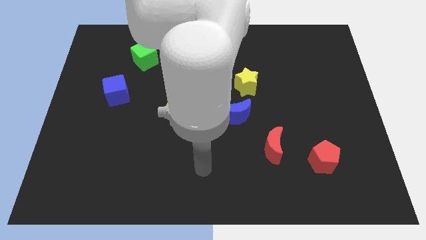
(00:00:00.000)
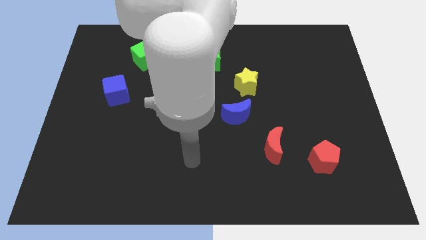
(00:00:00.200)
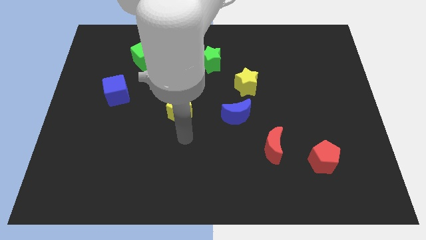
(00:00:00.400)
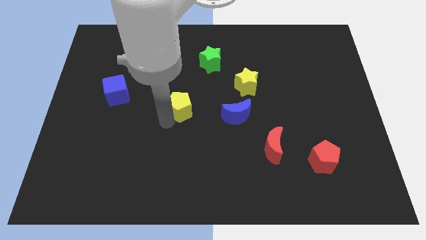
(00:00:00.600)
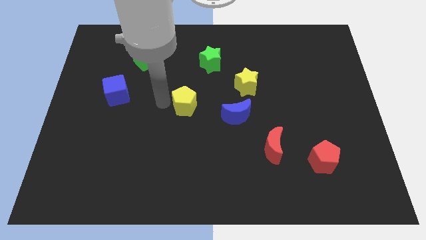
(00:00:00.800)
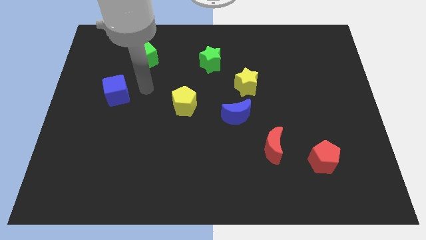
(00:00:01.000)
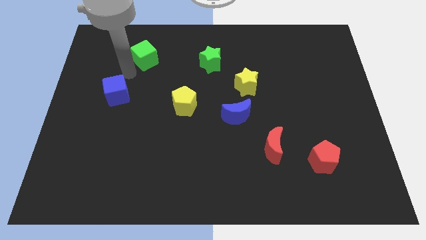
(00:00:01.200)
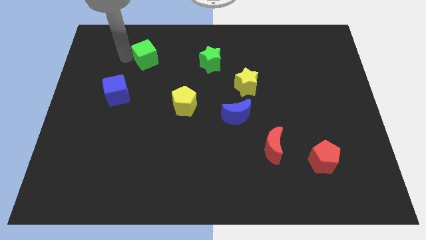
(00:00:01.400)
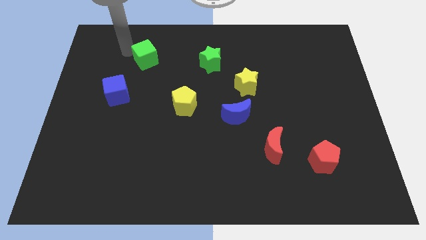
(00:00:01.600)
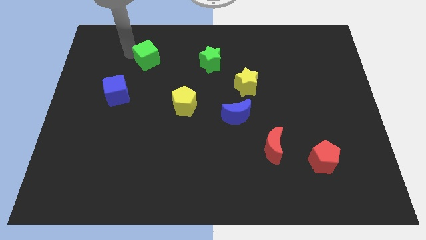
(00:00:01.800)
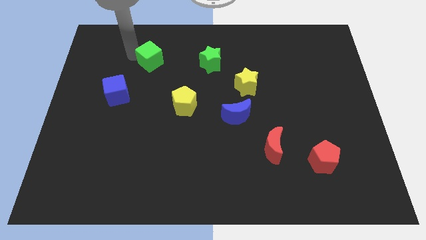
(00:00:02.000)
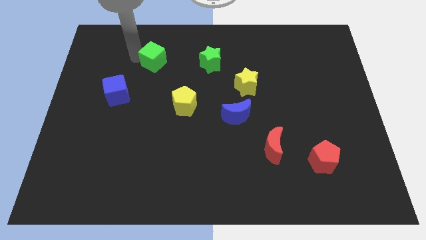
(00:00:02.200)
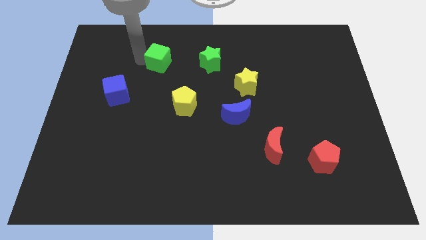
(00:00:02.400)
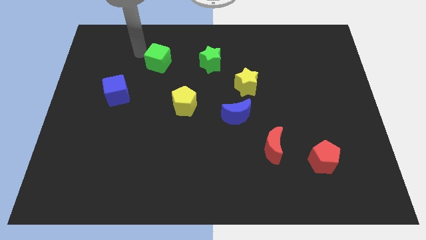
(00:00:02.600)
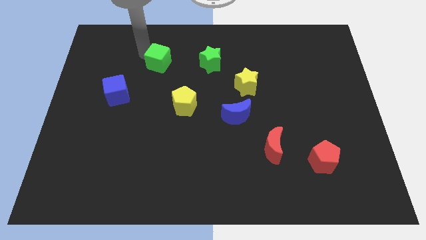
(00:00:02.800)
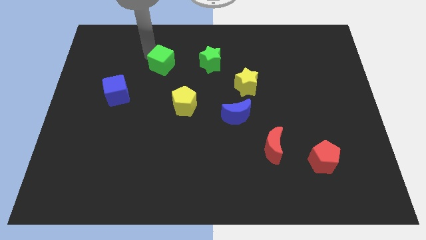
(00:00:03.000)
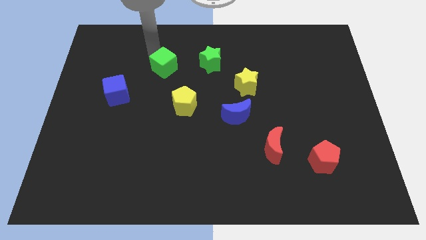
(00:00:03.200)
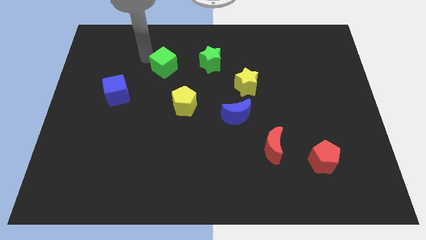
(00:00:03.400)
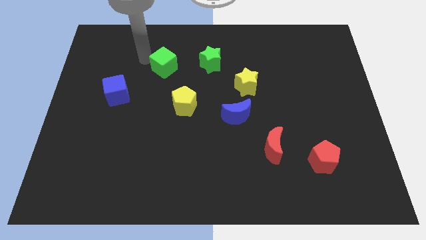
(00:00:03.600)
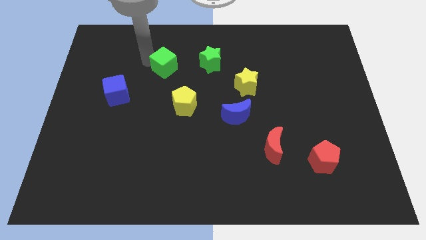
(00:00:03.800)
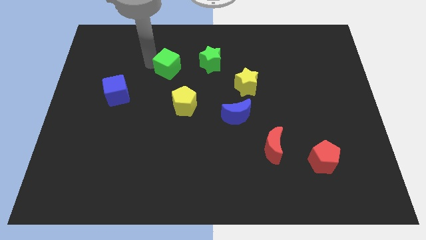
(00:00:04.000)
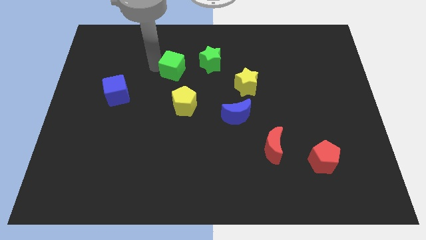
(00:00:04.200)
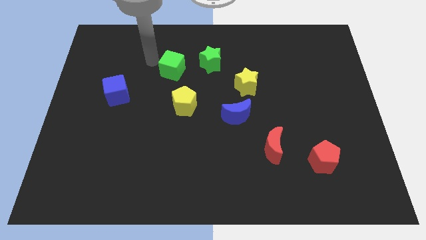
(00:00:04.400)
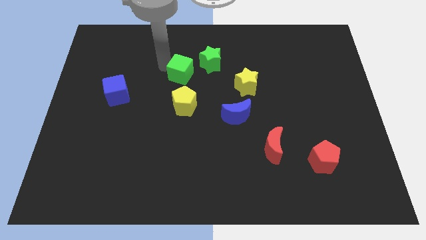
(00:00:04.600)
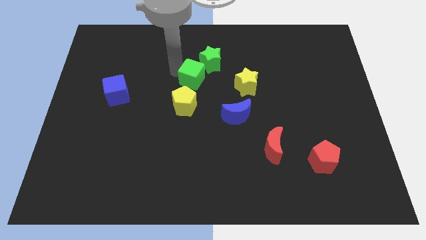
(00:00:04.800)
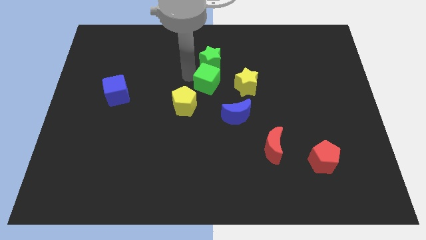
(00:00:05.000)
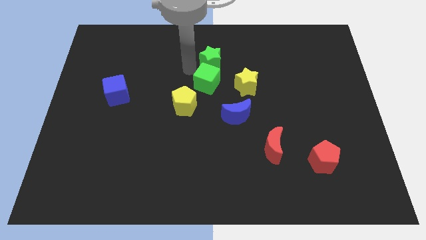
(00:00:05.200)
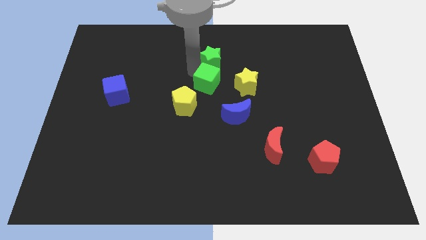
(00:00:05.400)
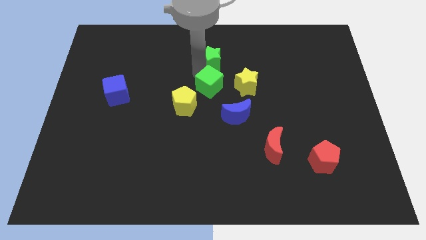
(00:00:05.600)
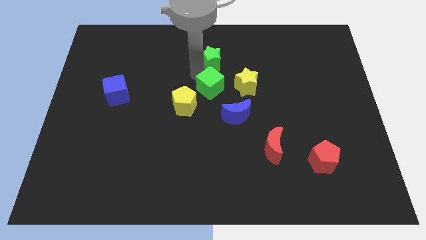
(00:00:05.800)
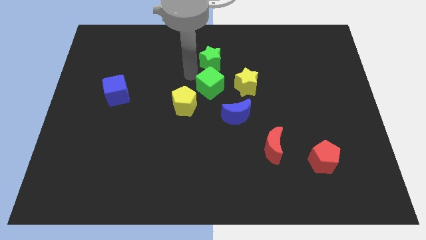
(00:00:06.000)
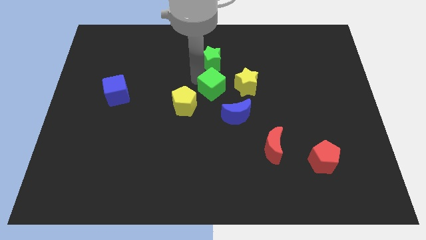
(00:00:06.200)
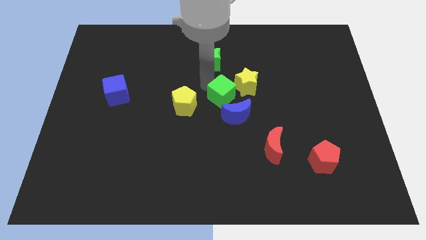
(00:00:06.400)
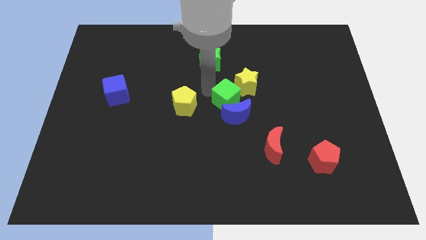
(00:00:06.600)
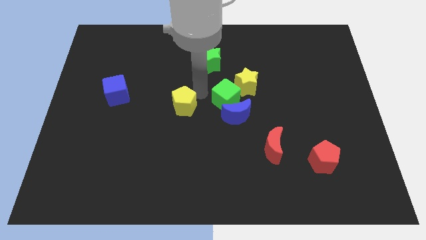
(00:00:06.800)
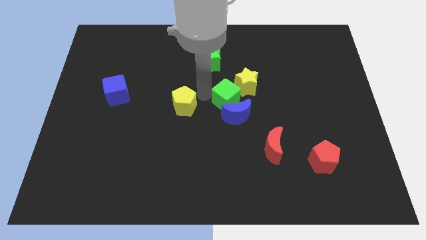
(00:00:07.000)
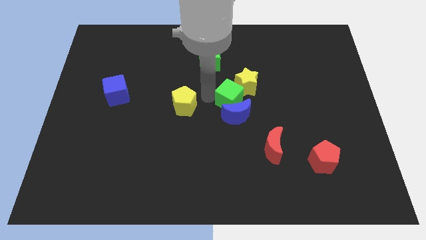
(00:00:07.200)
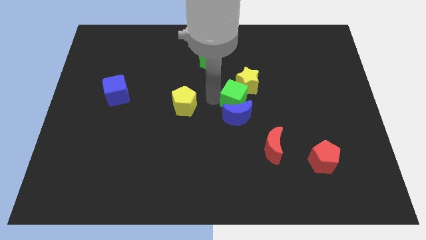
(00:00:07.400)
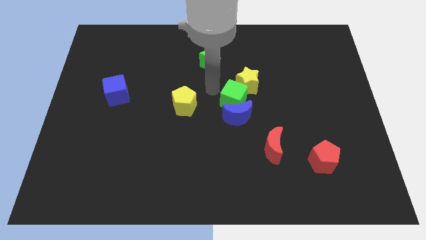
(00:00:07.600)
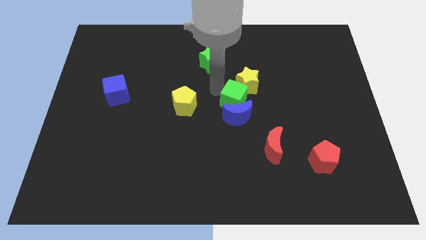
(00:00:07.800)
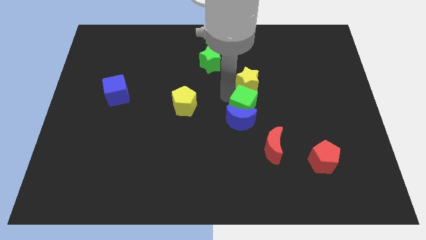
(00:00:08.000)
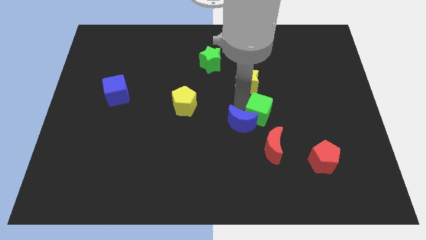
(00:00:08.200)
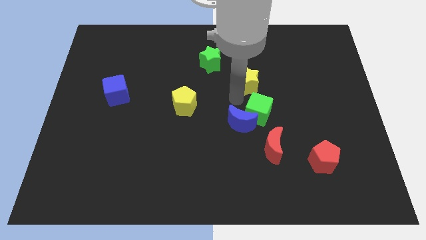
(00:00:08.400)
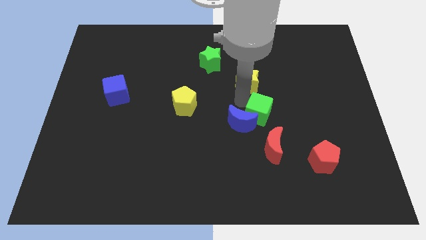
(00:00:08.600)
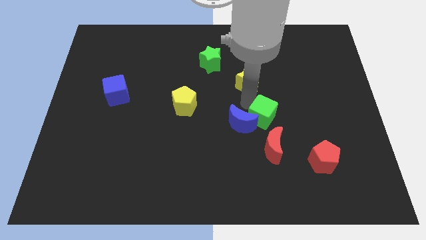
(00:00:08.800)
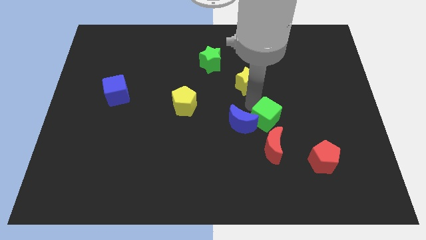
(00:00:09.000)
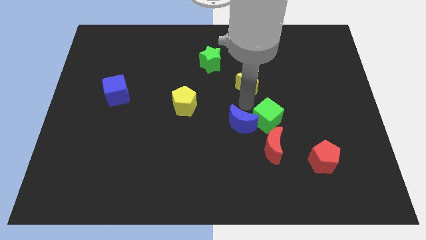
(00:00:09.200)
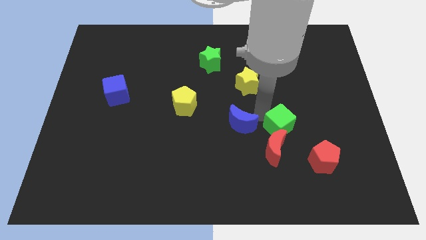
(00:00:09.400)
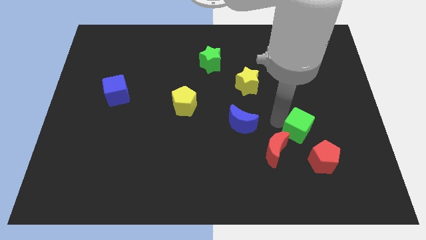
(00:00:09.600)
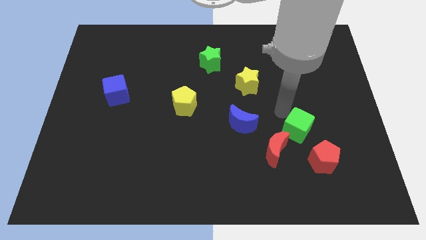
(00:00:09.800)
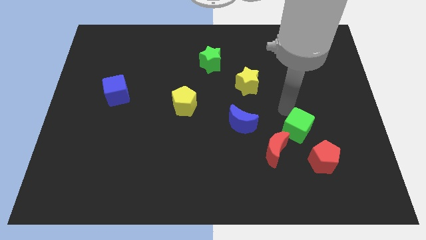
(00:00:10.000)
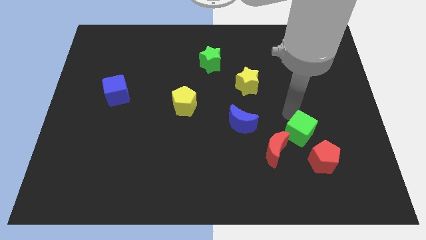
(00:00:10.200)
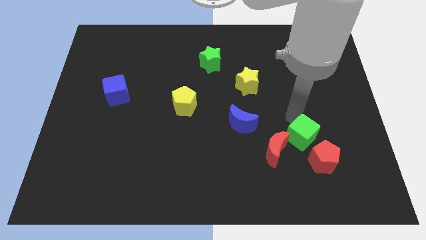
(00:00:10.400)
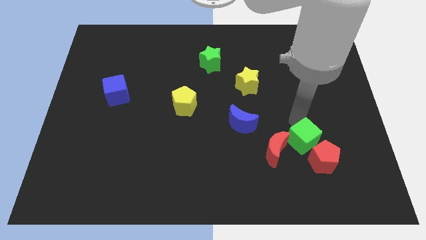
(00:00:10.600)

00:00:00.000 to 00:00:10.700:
push the green cube towards the red pentagon

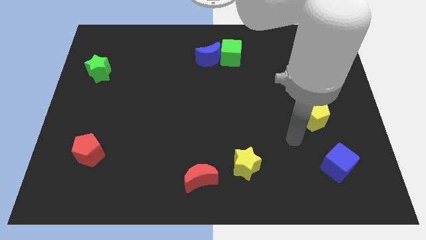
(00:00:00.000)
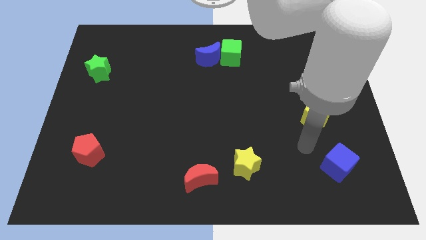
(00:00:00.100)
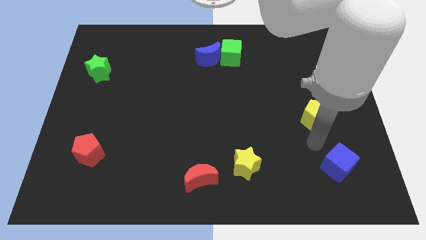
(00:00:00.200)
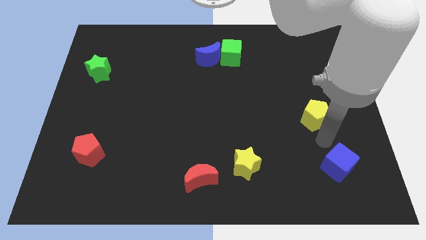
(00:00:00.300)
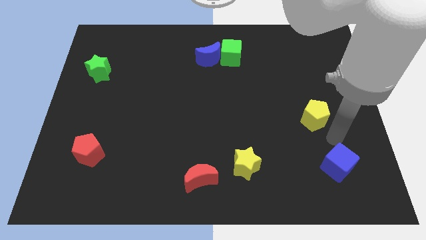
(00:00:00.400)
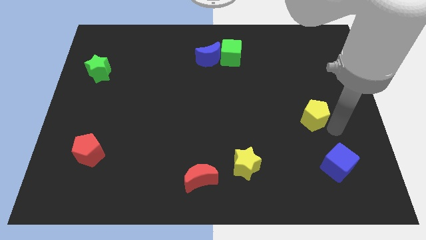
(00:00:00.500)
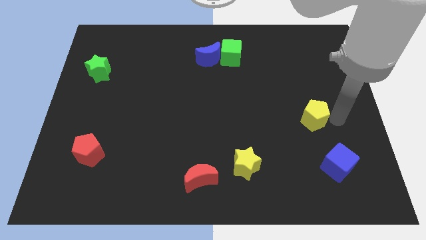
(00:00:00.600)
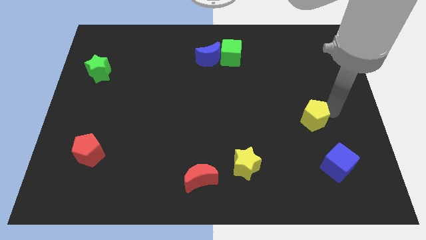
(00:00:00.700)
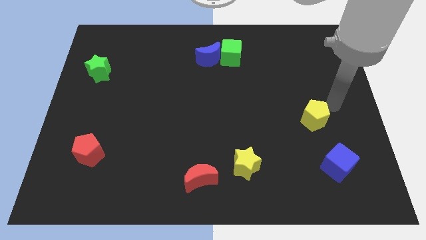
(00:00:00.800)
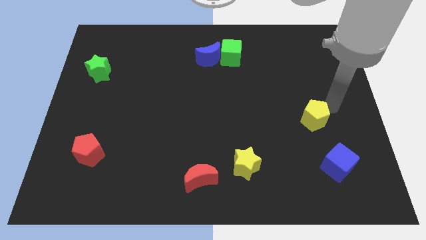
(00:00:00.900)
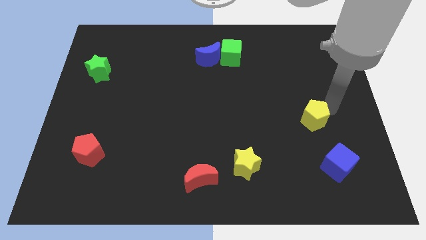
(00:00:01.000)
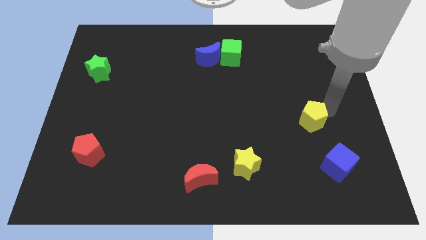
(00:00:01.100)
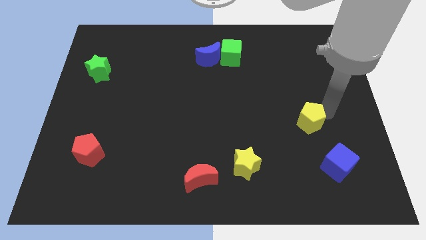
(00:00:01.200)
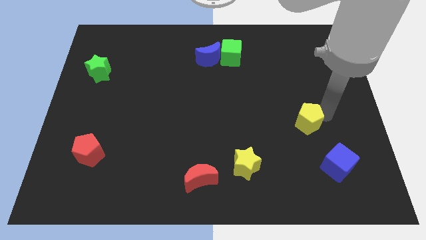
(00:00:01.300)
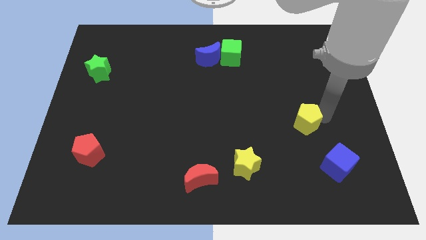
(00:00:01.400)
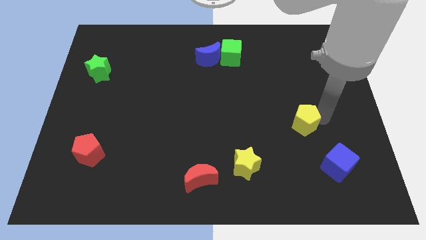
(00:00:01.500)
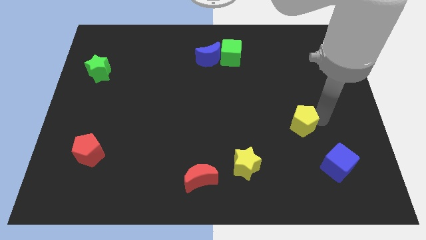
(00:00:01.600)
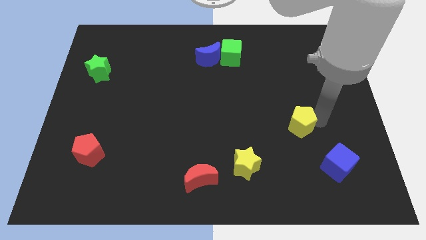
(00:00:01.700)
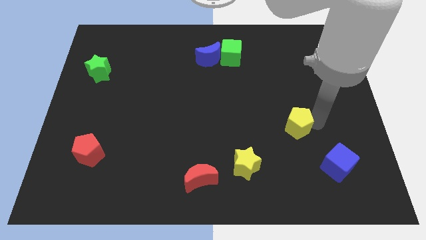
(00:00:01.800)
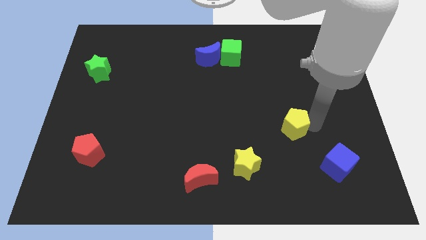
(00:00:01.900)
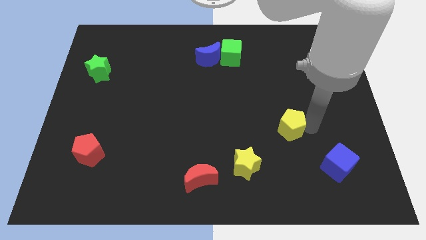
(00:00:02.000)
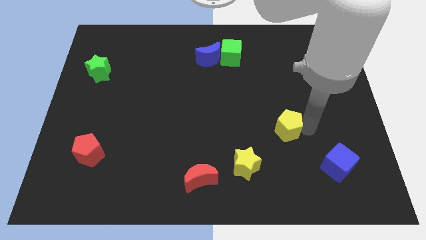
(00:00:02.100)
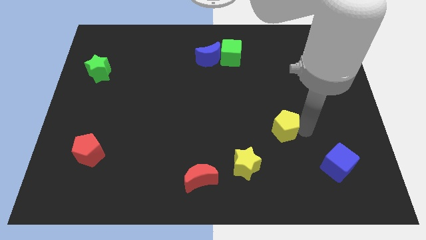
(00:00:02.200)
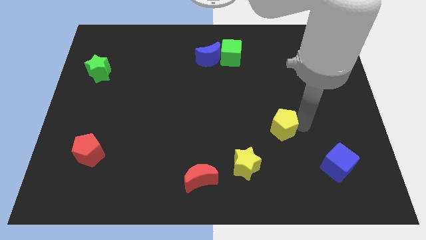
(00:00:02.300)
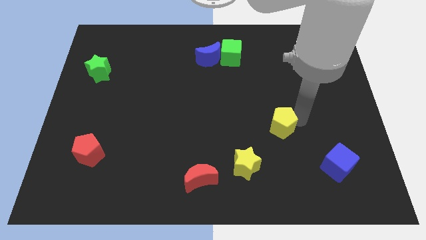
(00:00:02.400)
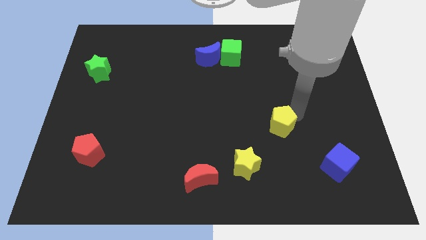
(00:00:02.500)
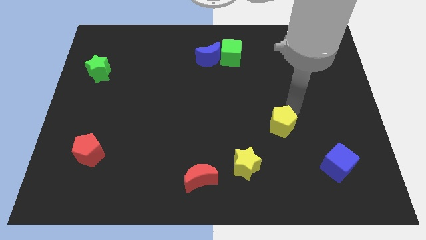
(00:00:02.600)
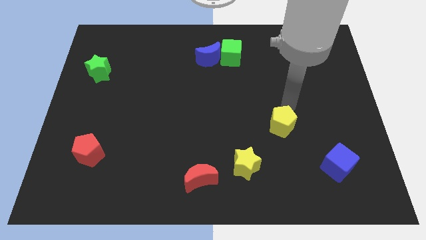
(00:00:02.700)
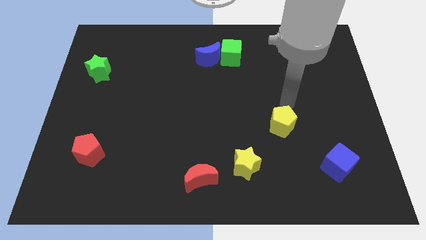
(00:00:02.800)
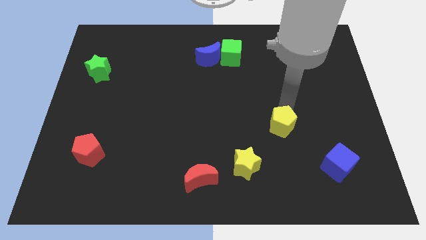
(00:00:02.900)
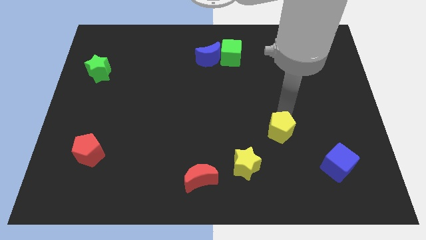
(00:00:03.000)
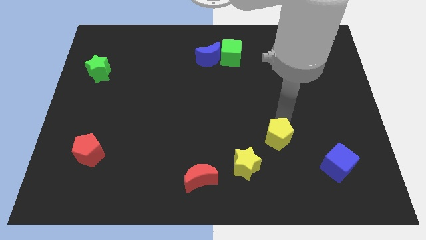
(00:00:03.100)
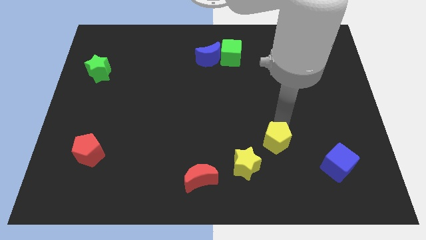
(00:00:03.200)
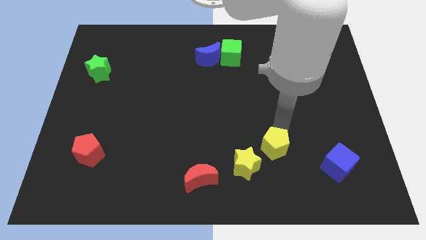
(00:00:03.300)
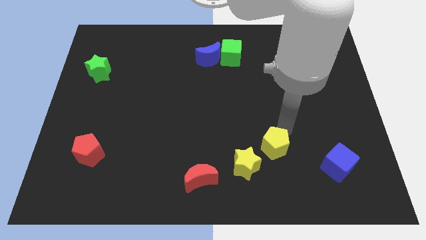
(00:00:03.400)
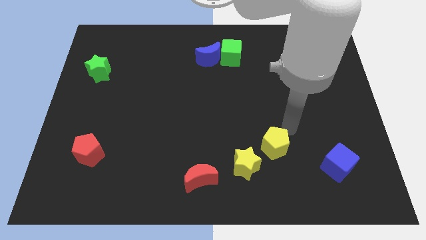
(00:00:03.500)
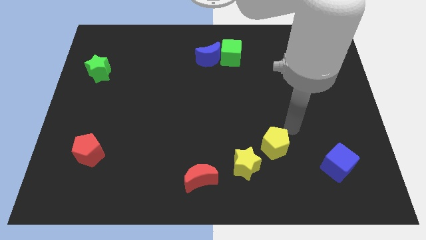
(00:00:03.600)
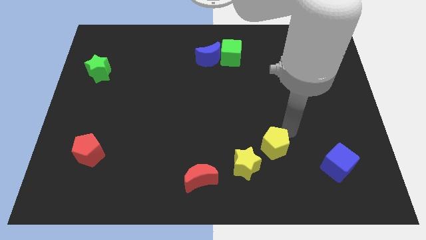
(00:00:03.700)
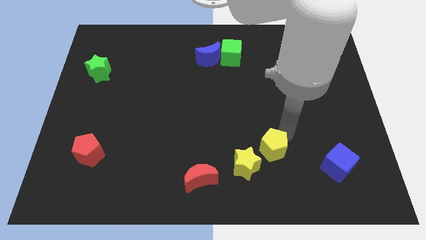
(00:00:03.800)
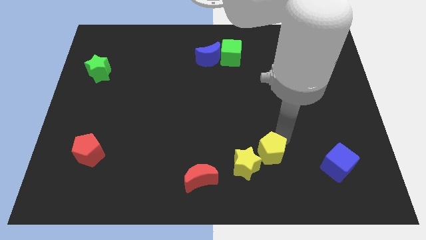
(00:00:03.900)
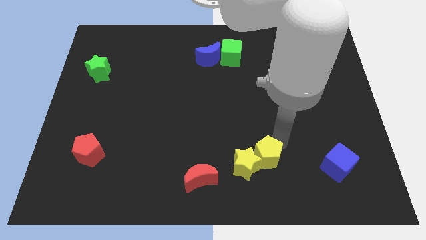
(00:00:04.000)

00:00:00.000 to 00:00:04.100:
put the yellow pentagon to the yellow star
